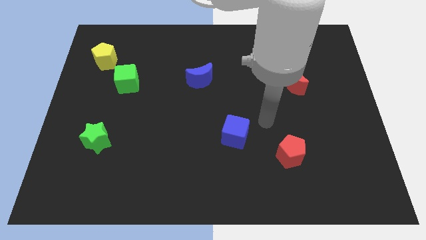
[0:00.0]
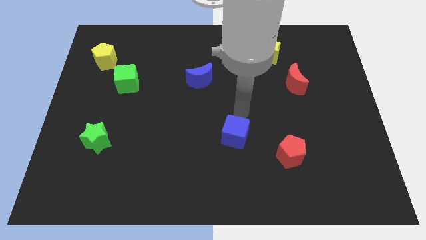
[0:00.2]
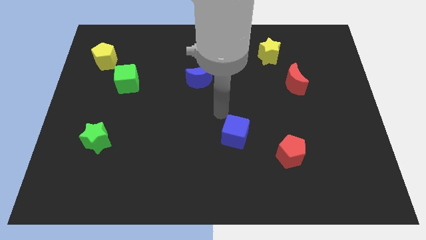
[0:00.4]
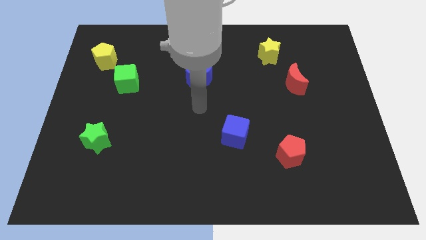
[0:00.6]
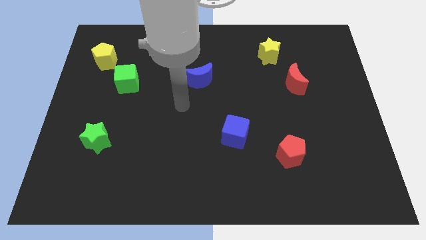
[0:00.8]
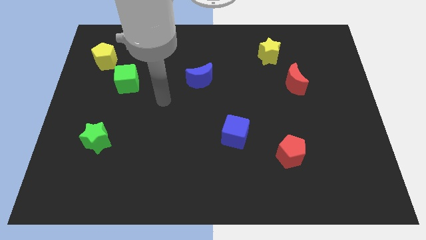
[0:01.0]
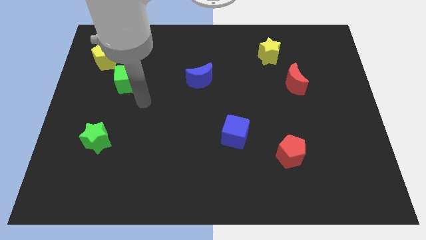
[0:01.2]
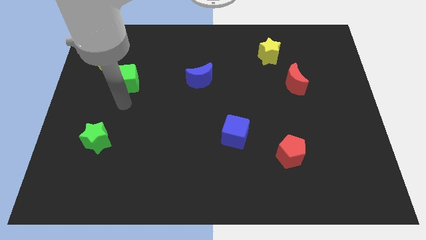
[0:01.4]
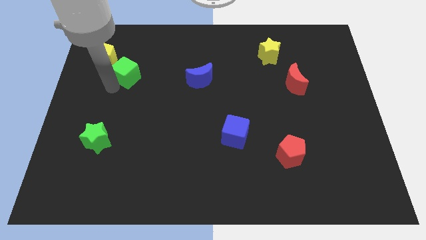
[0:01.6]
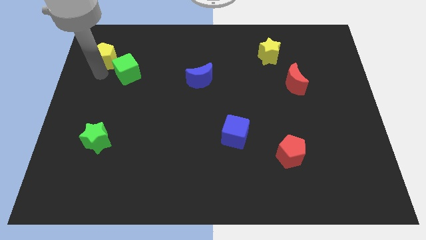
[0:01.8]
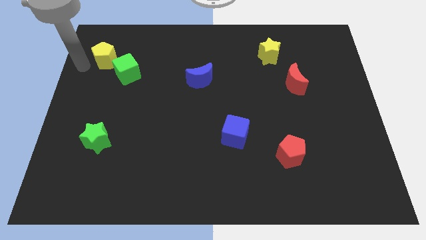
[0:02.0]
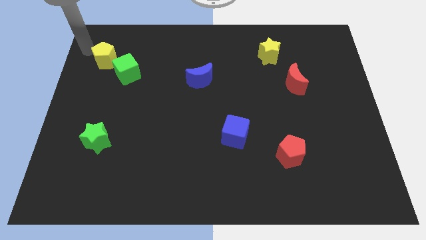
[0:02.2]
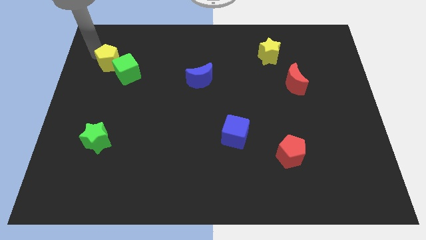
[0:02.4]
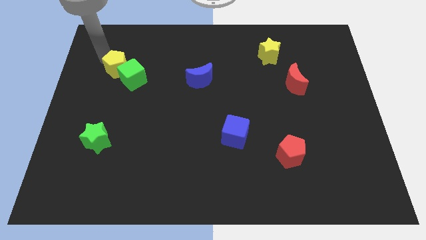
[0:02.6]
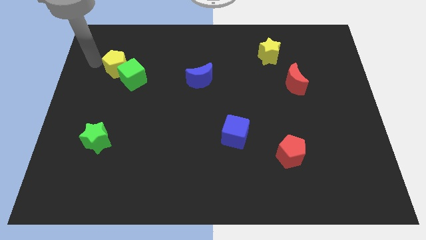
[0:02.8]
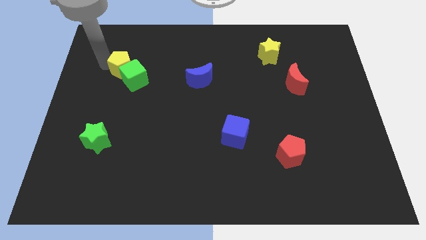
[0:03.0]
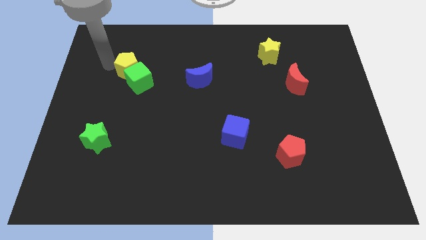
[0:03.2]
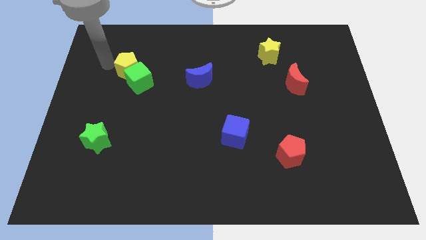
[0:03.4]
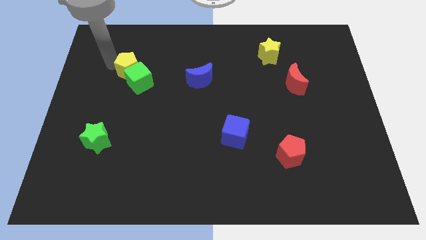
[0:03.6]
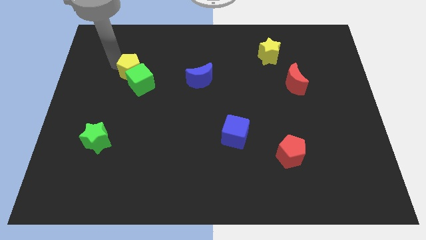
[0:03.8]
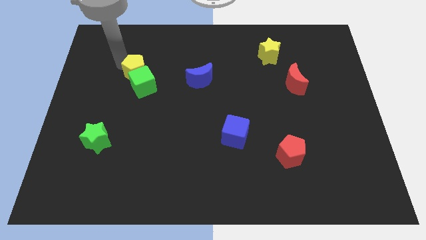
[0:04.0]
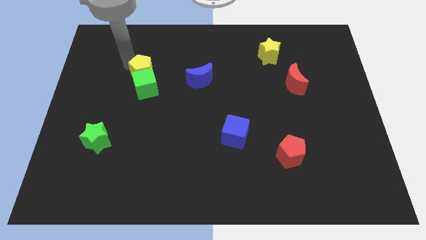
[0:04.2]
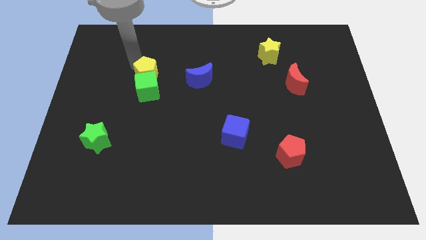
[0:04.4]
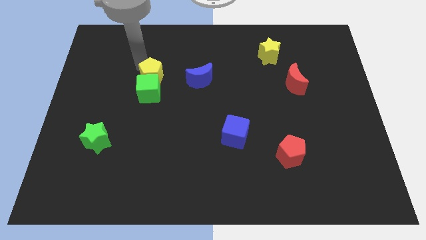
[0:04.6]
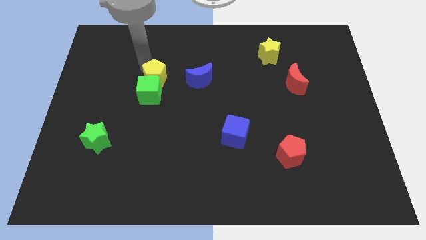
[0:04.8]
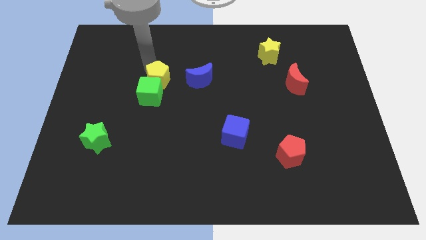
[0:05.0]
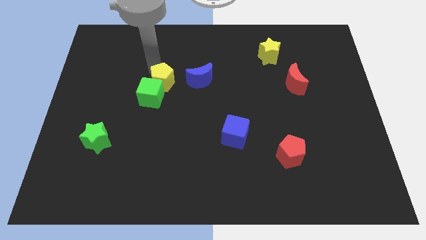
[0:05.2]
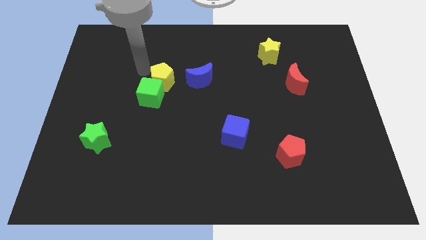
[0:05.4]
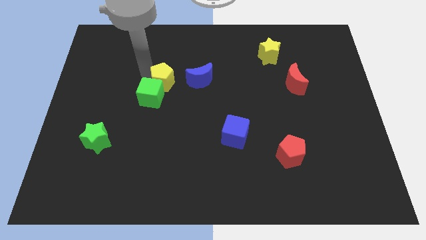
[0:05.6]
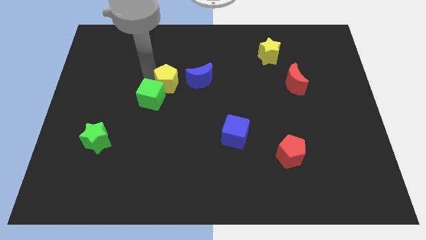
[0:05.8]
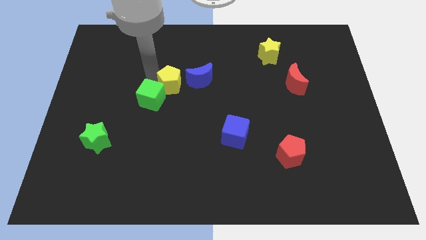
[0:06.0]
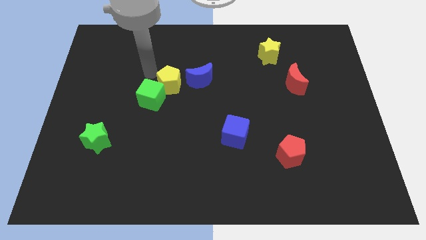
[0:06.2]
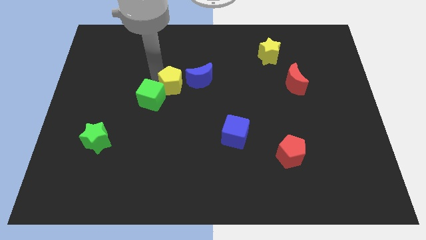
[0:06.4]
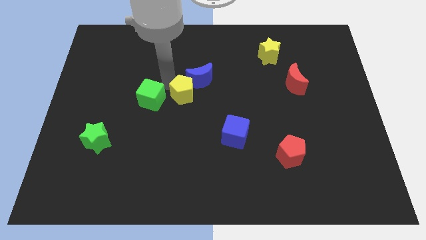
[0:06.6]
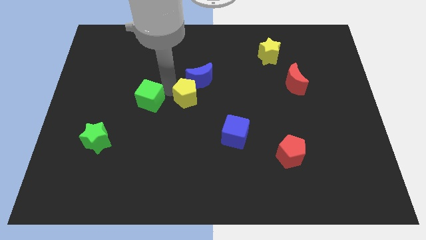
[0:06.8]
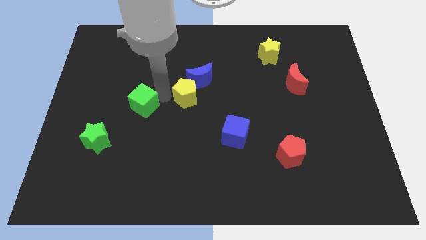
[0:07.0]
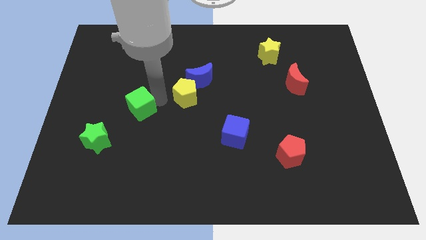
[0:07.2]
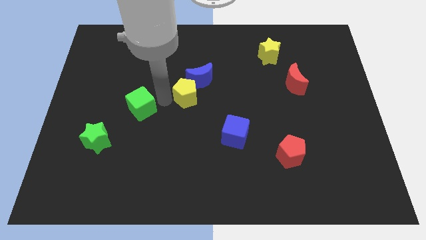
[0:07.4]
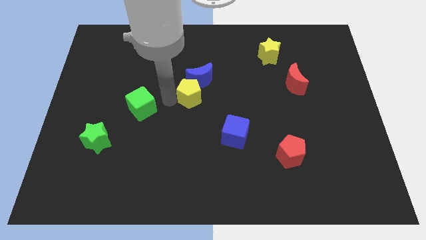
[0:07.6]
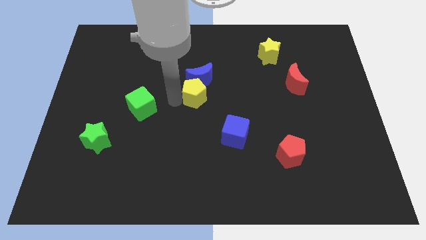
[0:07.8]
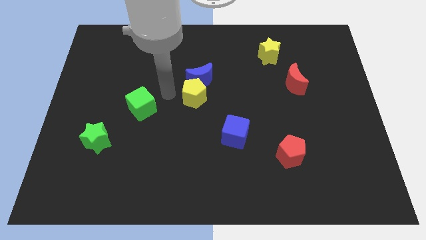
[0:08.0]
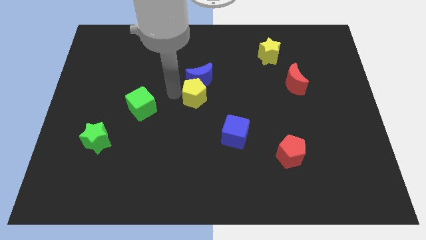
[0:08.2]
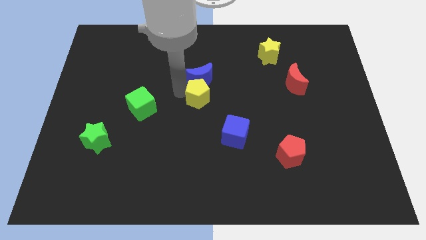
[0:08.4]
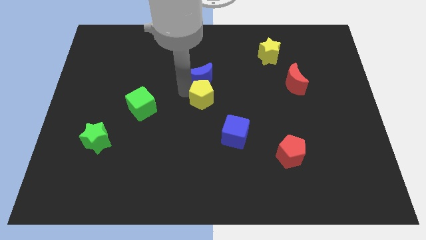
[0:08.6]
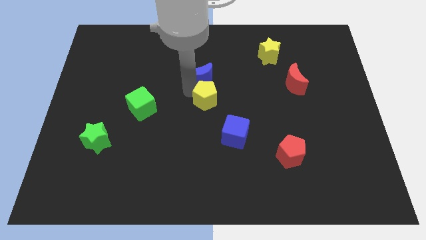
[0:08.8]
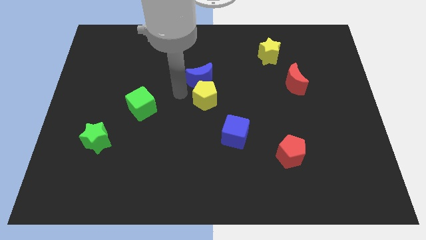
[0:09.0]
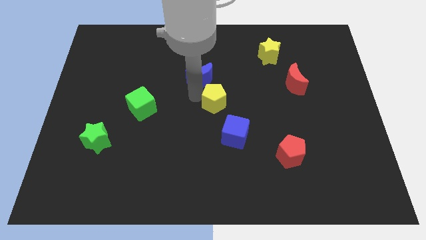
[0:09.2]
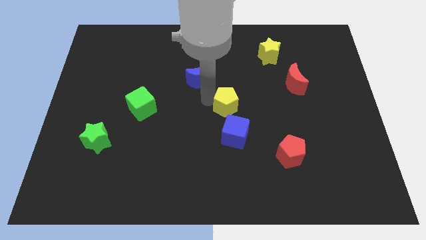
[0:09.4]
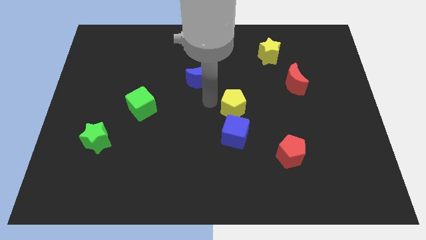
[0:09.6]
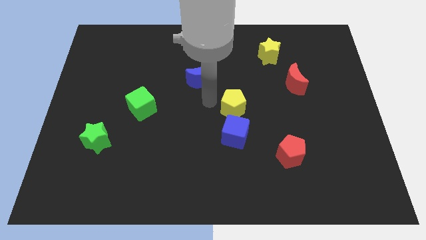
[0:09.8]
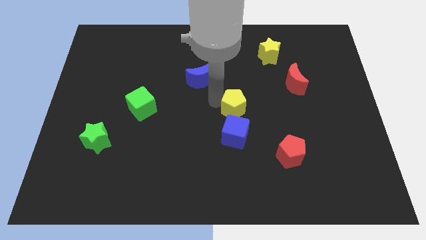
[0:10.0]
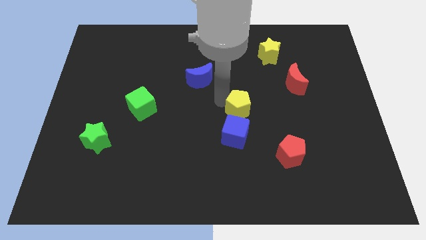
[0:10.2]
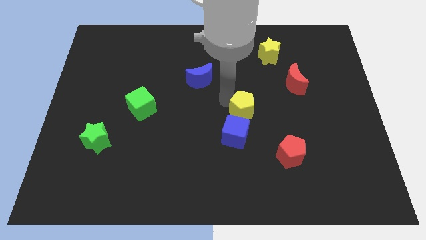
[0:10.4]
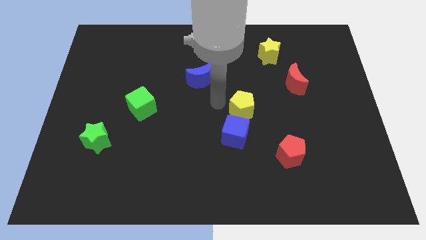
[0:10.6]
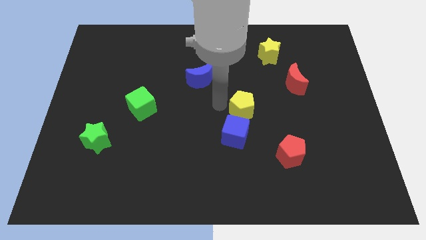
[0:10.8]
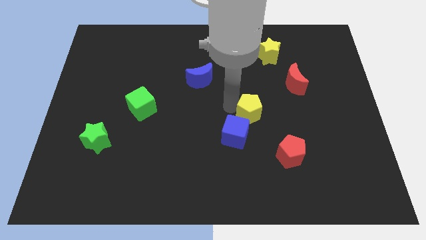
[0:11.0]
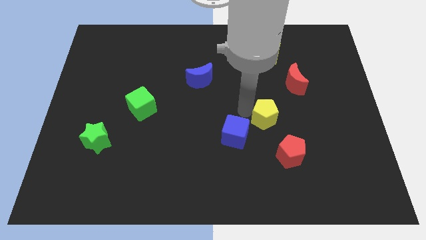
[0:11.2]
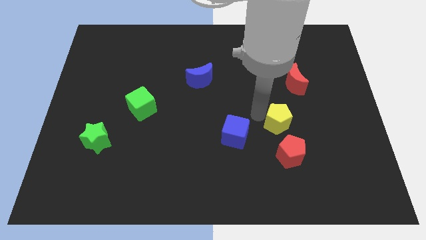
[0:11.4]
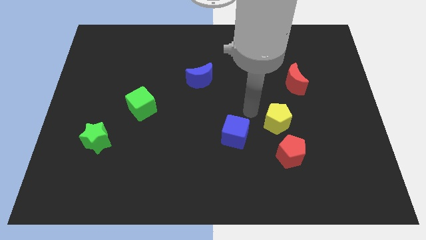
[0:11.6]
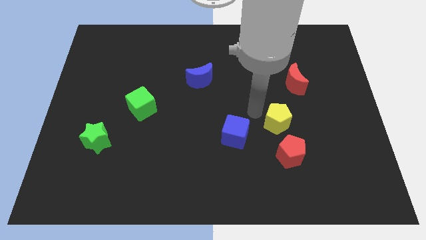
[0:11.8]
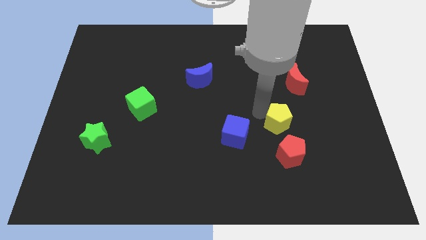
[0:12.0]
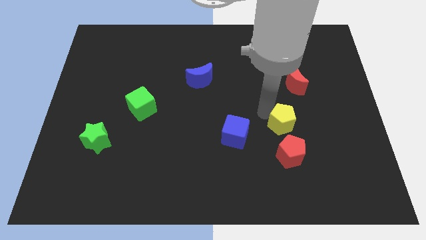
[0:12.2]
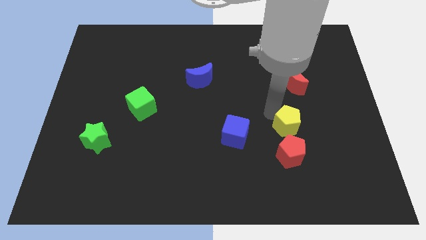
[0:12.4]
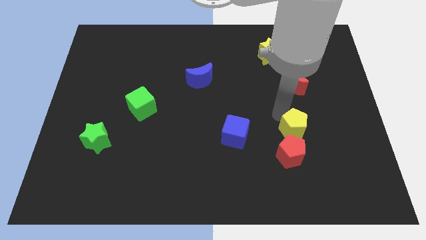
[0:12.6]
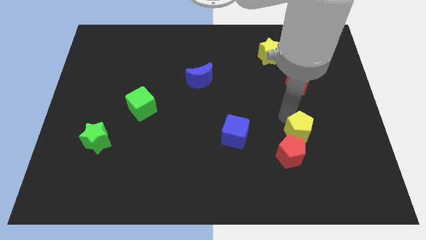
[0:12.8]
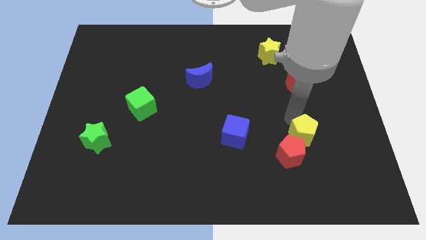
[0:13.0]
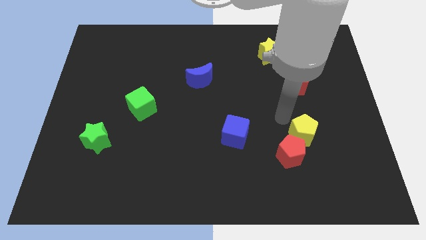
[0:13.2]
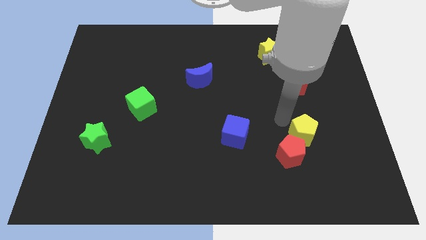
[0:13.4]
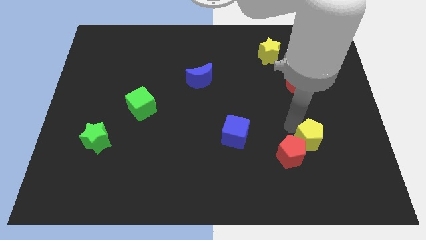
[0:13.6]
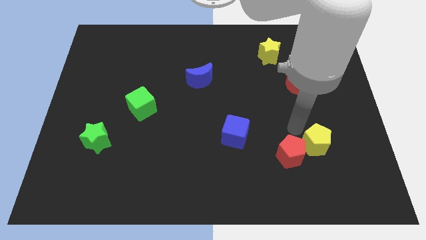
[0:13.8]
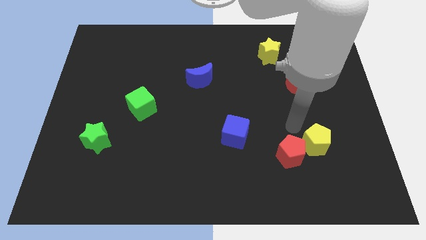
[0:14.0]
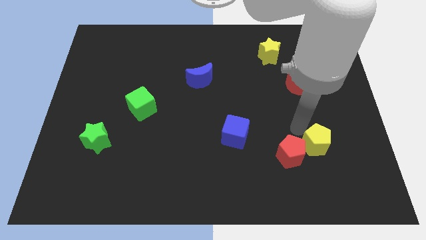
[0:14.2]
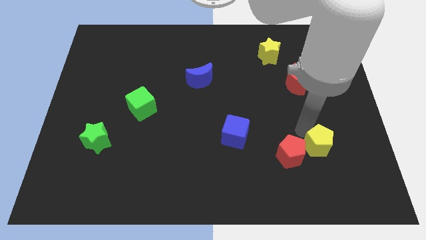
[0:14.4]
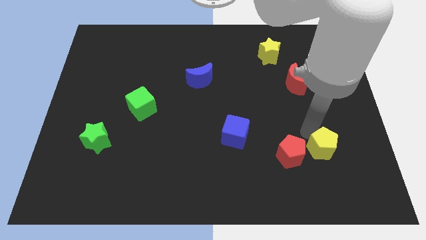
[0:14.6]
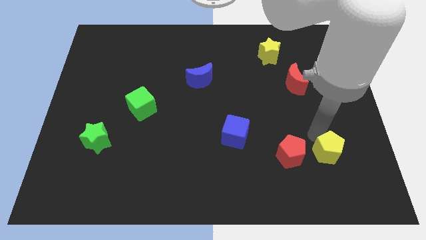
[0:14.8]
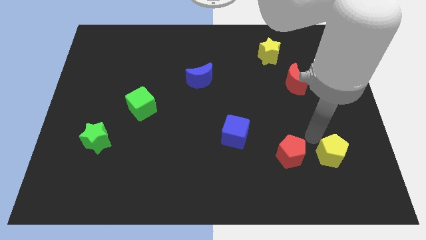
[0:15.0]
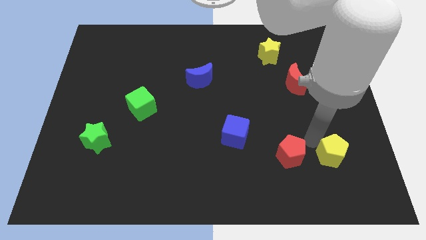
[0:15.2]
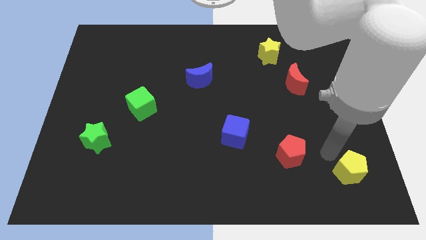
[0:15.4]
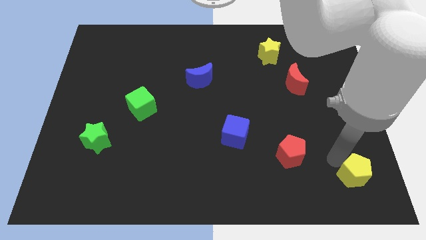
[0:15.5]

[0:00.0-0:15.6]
move the yellow pentagon to the lower right corner
